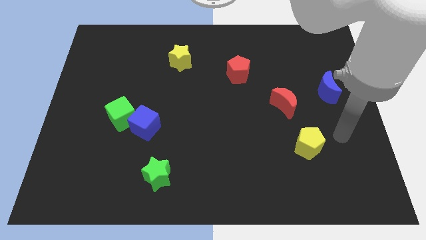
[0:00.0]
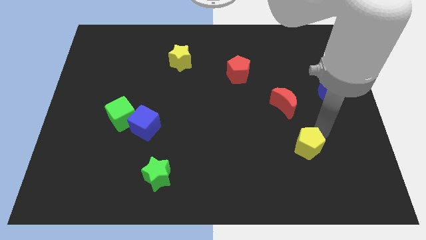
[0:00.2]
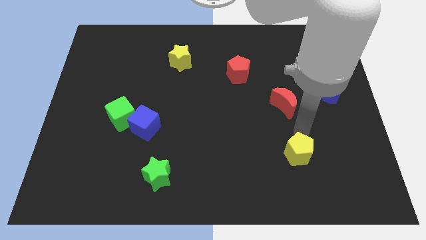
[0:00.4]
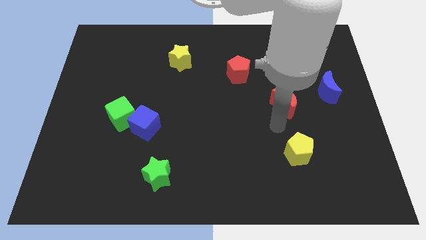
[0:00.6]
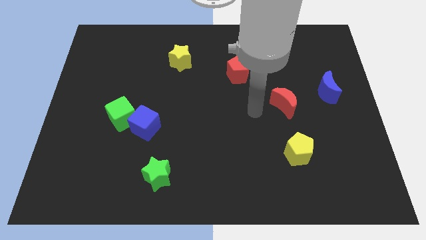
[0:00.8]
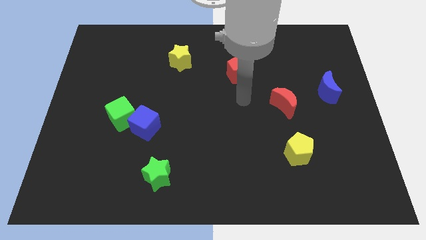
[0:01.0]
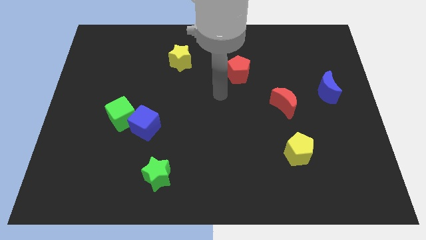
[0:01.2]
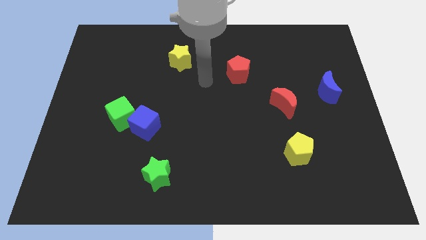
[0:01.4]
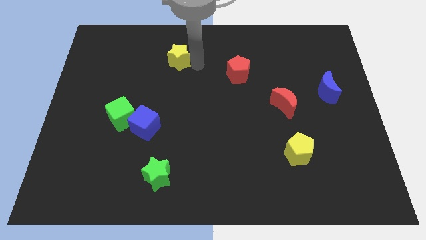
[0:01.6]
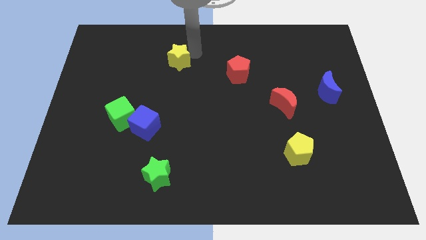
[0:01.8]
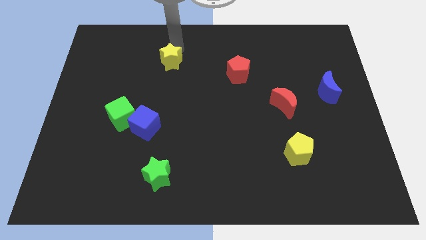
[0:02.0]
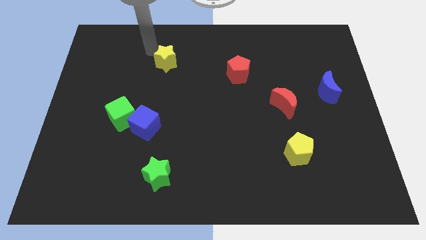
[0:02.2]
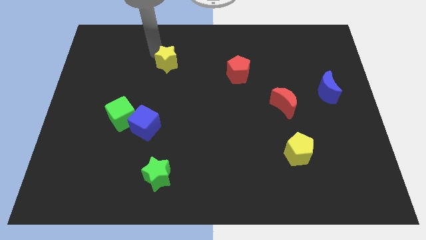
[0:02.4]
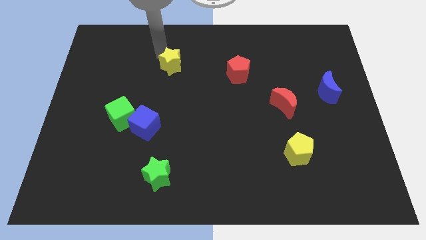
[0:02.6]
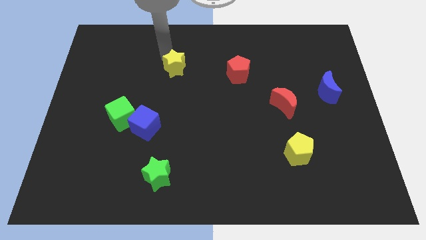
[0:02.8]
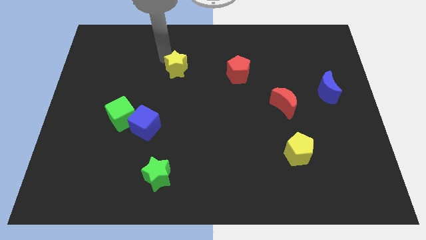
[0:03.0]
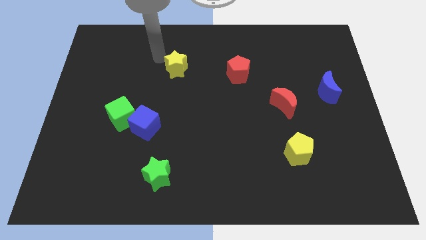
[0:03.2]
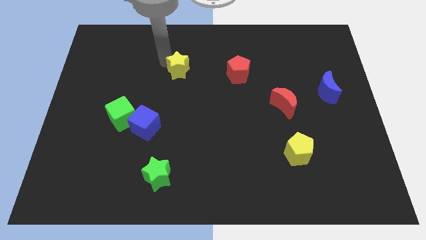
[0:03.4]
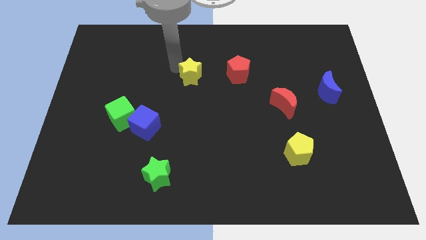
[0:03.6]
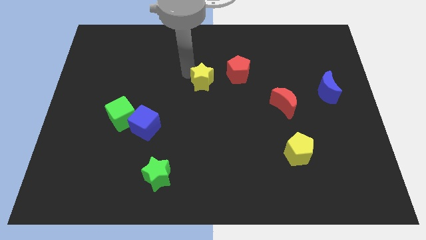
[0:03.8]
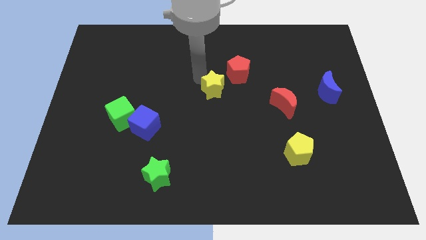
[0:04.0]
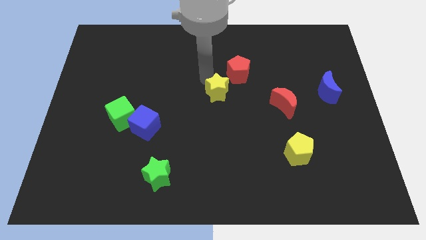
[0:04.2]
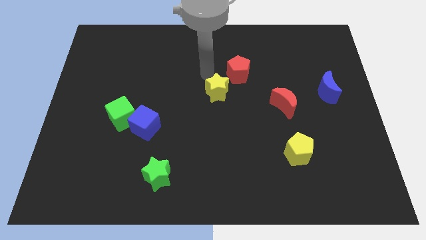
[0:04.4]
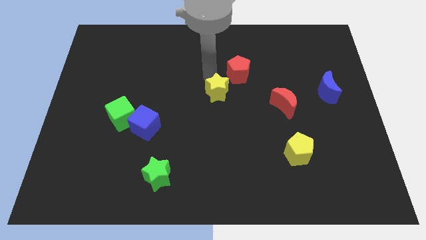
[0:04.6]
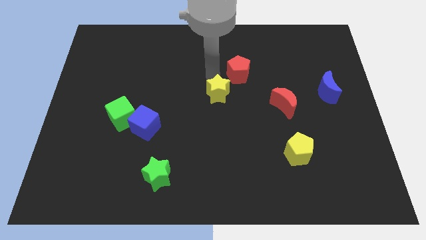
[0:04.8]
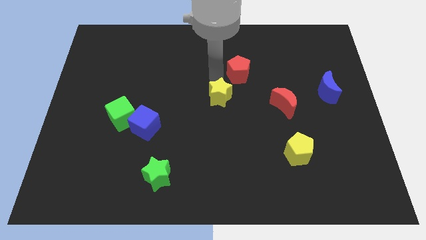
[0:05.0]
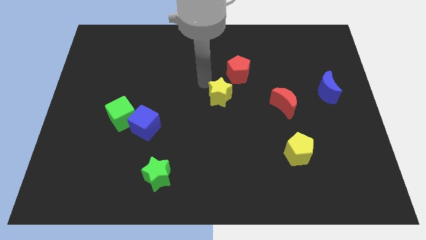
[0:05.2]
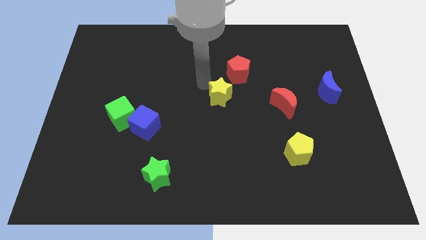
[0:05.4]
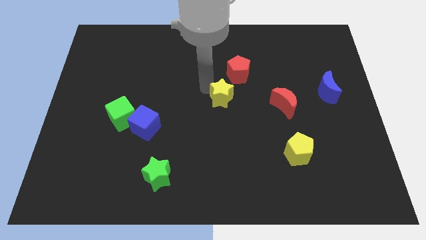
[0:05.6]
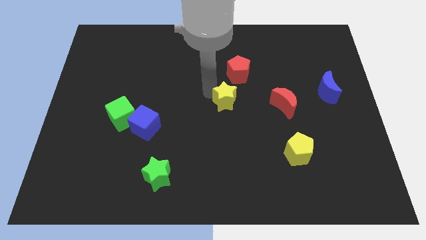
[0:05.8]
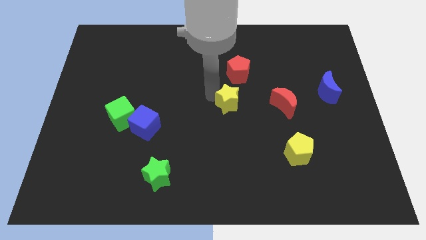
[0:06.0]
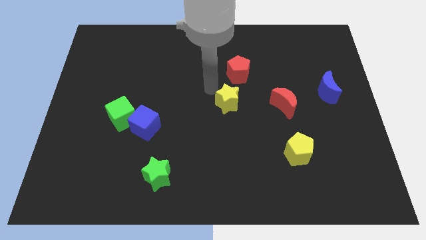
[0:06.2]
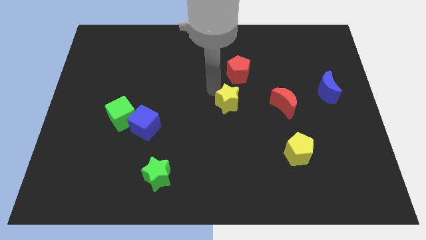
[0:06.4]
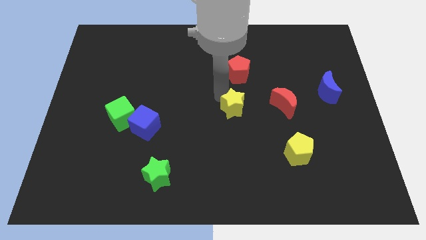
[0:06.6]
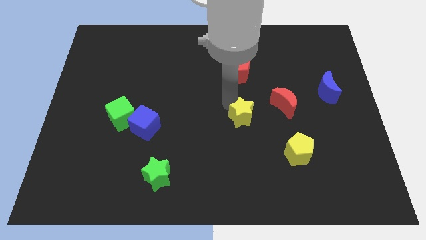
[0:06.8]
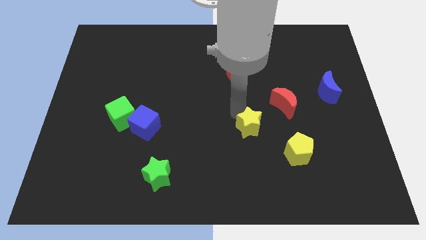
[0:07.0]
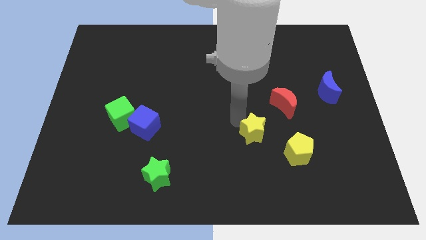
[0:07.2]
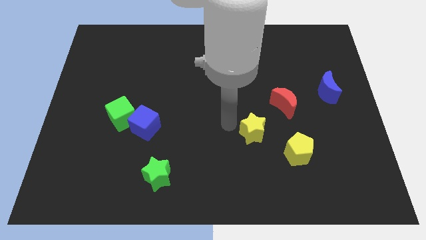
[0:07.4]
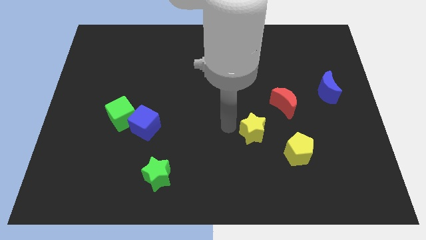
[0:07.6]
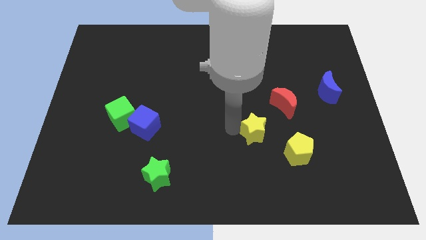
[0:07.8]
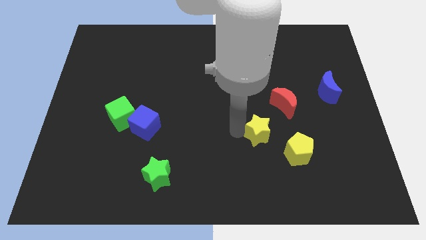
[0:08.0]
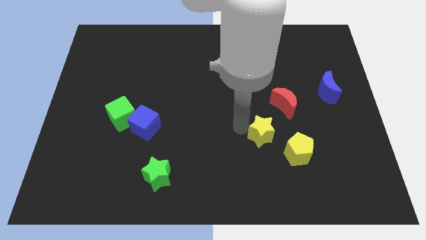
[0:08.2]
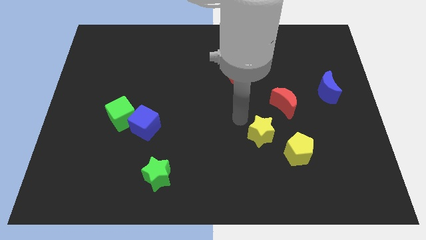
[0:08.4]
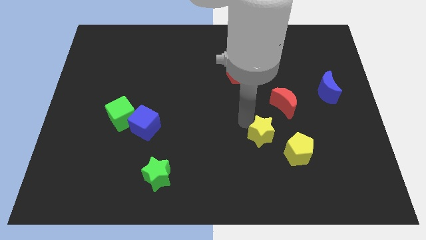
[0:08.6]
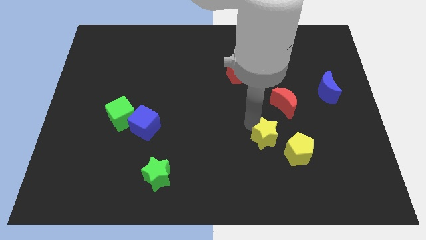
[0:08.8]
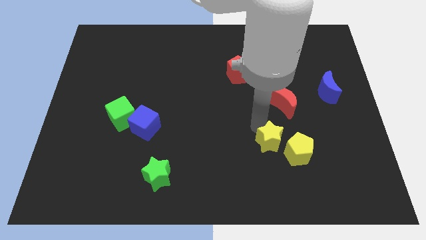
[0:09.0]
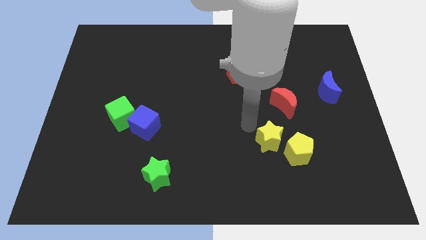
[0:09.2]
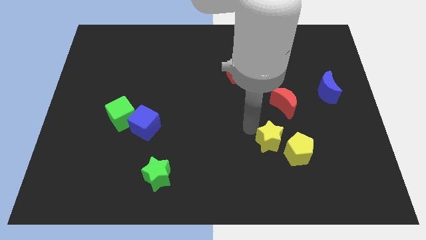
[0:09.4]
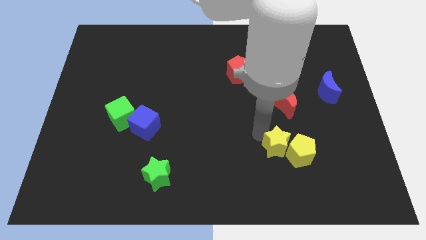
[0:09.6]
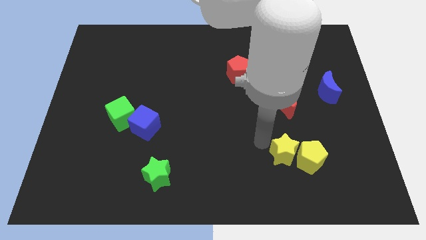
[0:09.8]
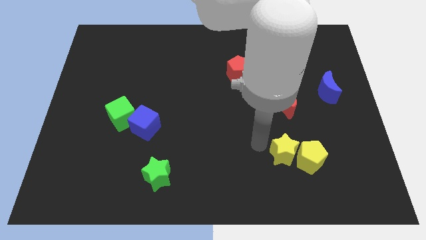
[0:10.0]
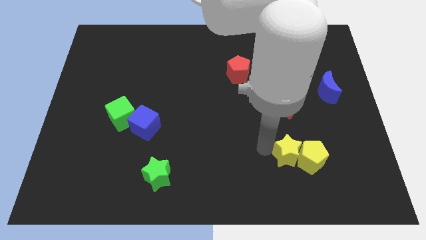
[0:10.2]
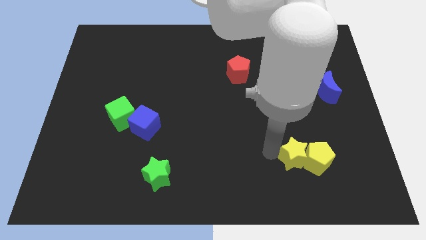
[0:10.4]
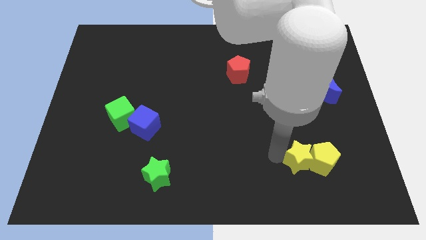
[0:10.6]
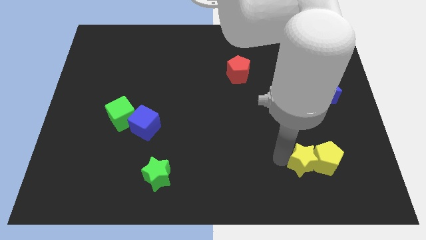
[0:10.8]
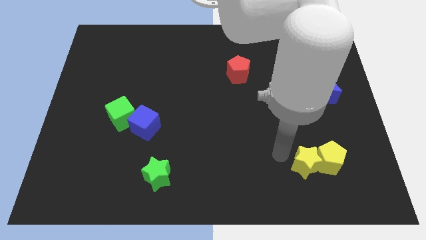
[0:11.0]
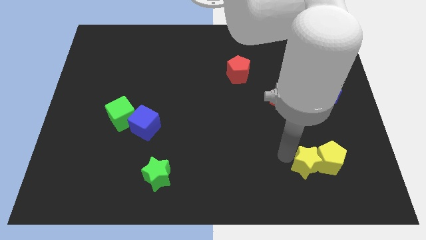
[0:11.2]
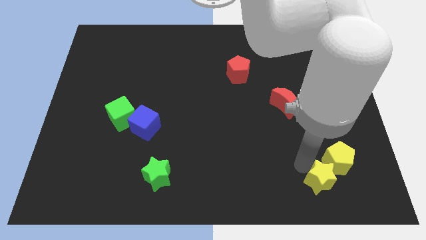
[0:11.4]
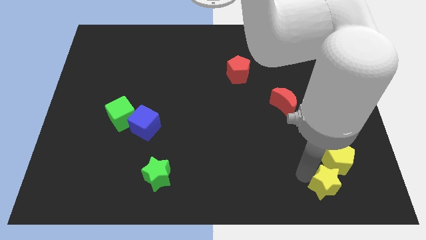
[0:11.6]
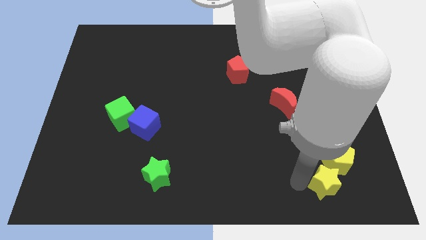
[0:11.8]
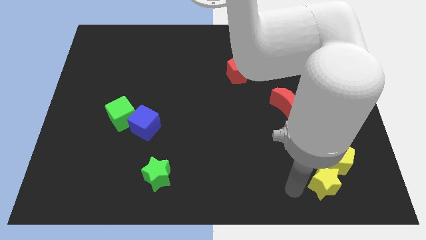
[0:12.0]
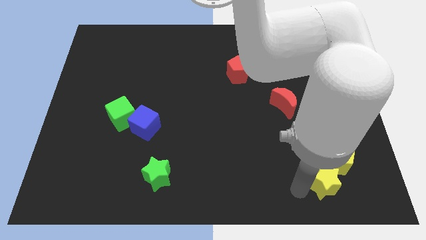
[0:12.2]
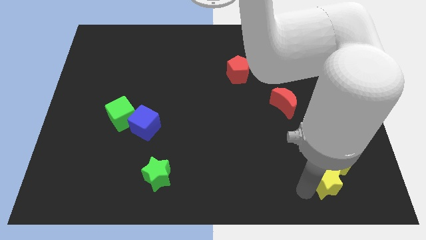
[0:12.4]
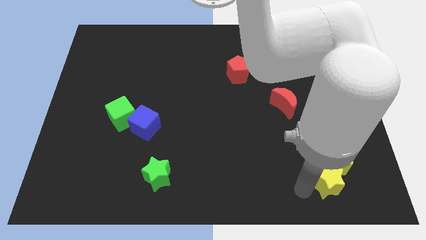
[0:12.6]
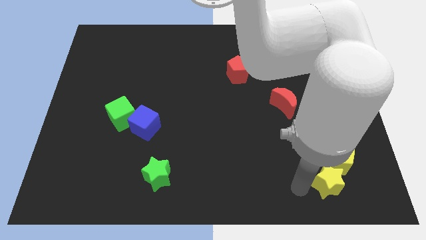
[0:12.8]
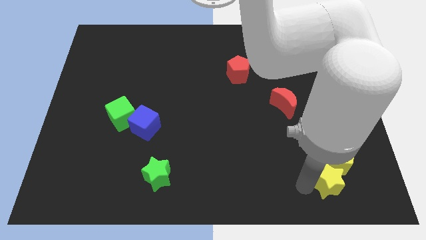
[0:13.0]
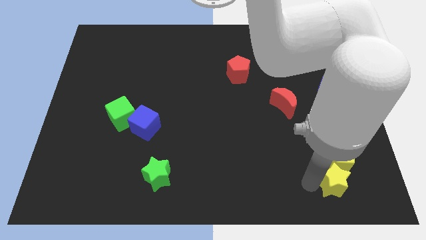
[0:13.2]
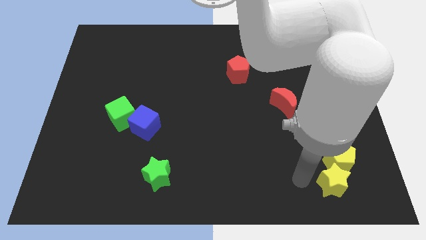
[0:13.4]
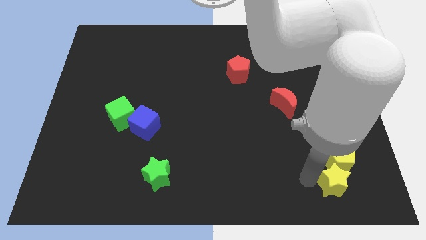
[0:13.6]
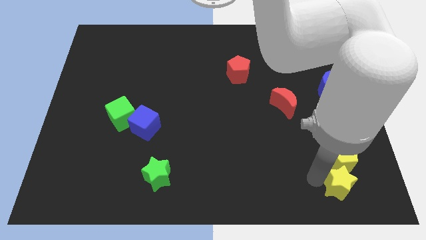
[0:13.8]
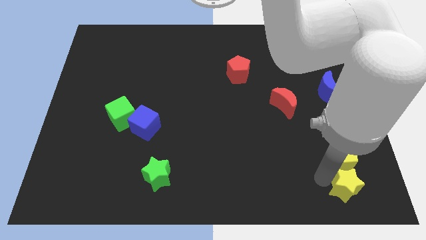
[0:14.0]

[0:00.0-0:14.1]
push the yellow star to the bottom right of the board
